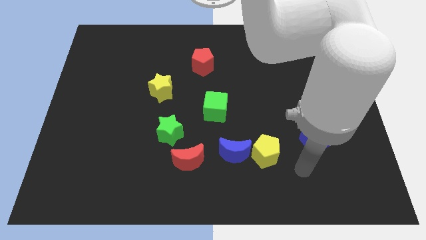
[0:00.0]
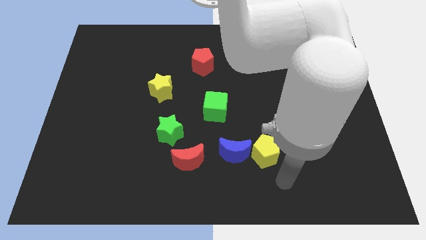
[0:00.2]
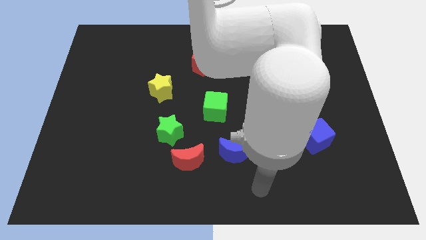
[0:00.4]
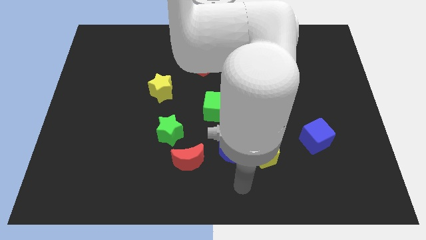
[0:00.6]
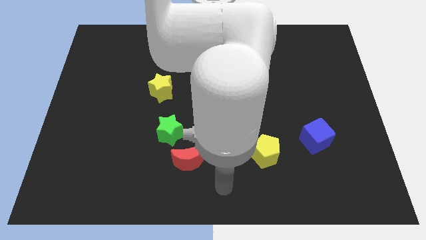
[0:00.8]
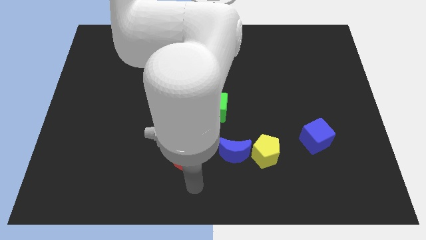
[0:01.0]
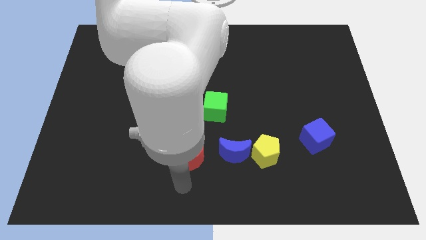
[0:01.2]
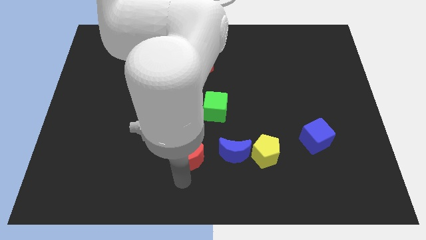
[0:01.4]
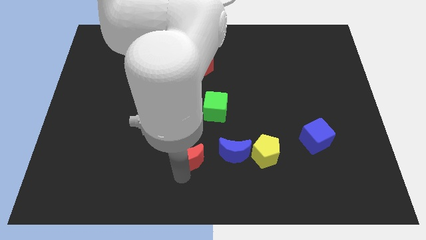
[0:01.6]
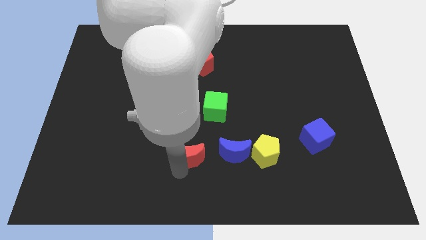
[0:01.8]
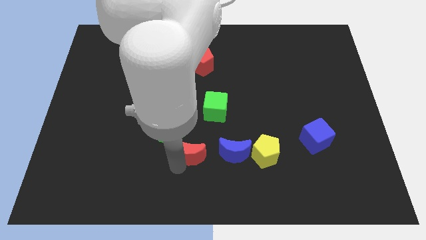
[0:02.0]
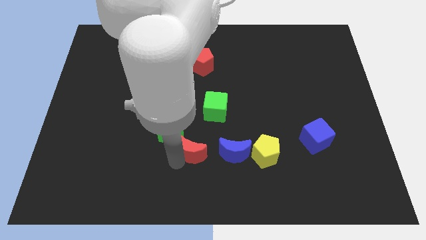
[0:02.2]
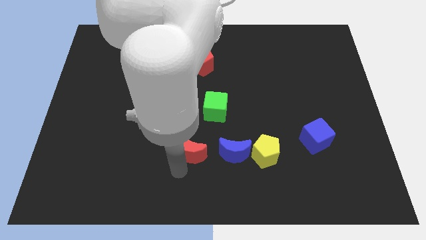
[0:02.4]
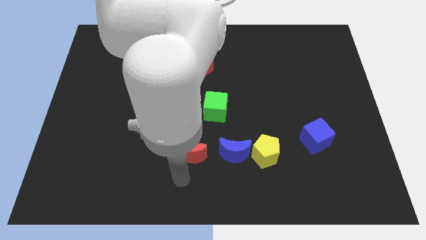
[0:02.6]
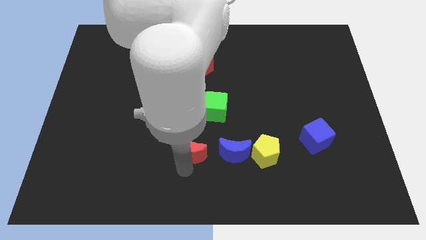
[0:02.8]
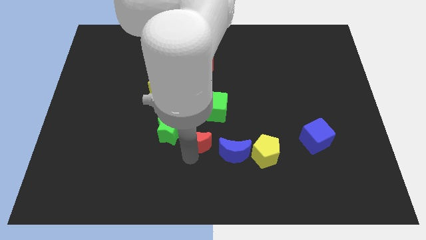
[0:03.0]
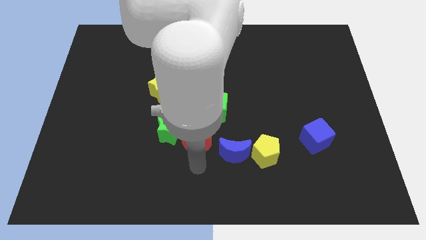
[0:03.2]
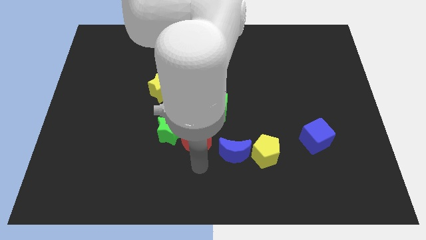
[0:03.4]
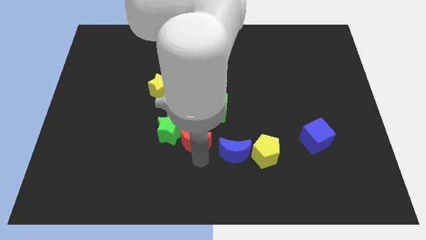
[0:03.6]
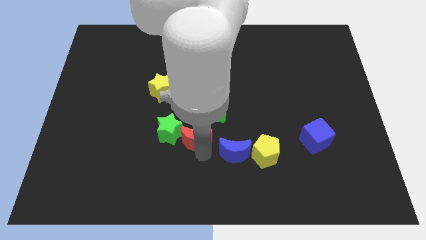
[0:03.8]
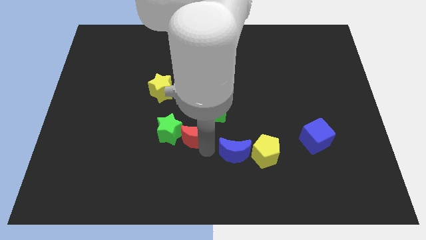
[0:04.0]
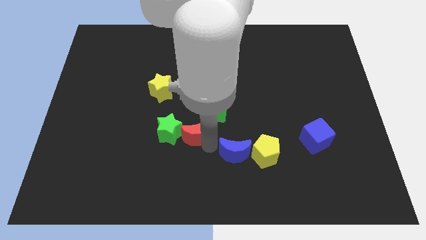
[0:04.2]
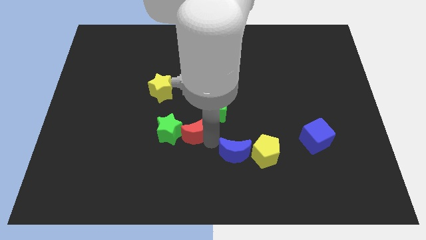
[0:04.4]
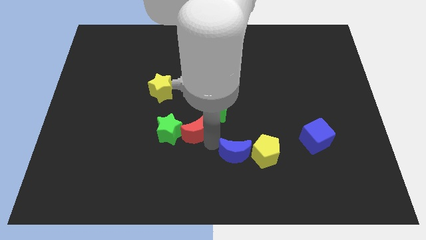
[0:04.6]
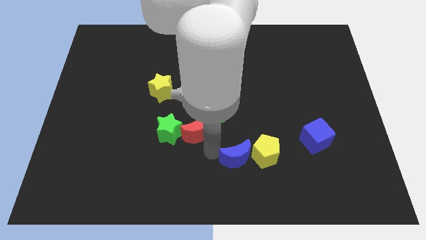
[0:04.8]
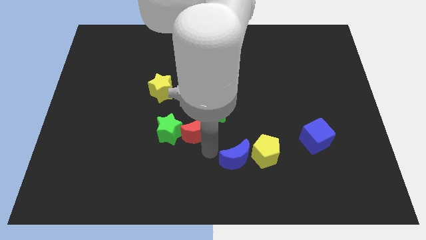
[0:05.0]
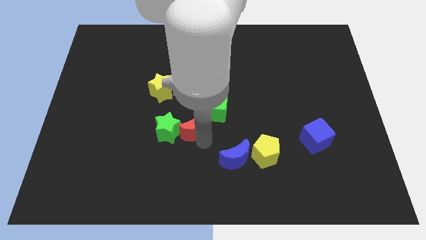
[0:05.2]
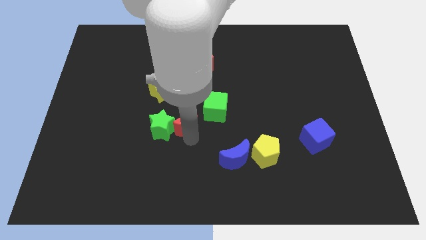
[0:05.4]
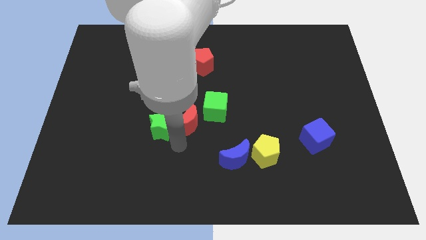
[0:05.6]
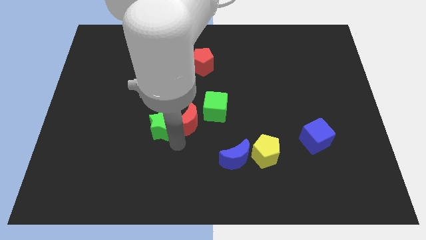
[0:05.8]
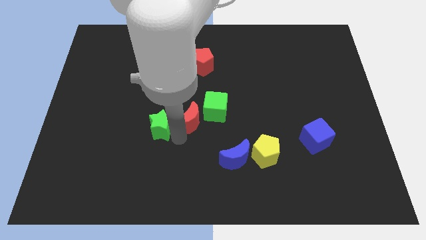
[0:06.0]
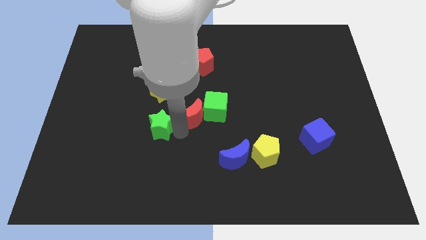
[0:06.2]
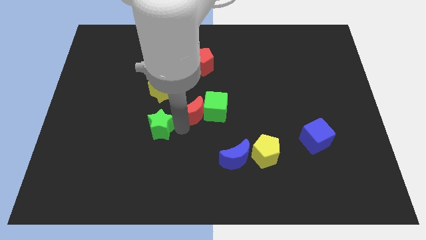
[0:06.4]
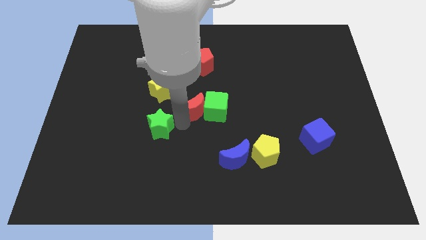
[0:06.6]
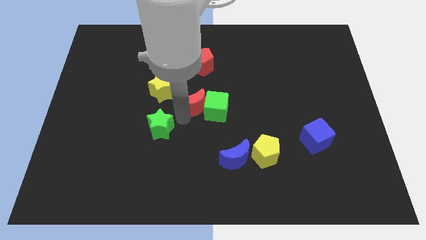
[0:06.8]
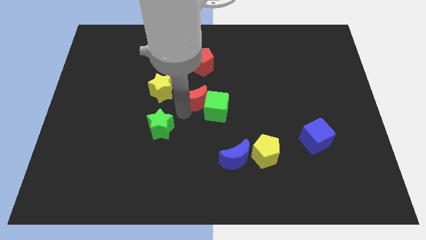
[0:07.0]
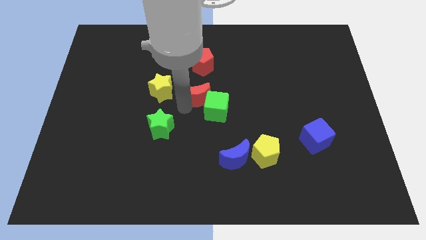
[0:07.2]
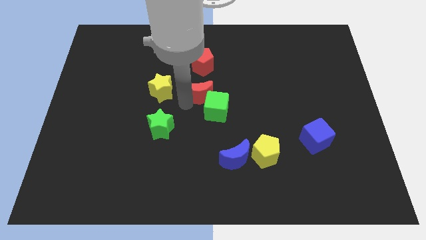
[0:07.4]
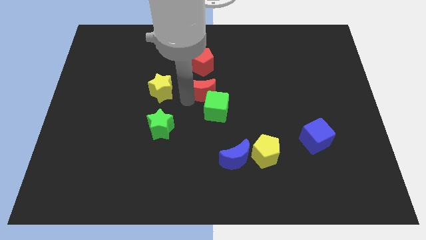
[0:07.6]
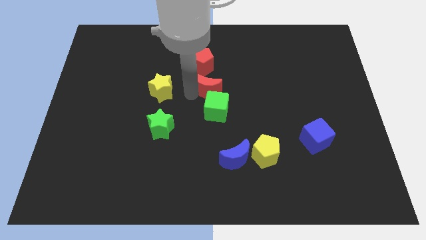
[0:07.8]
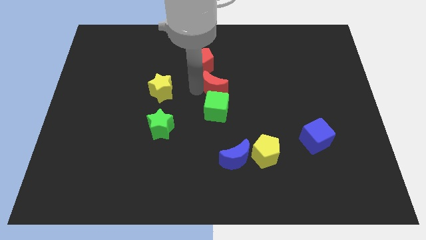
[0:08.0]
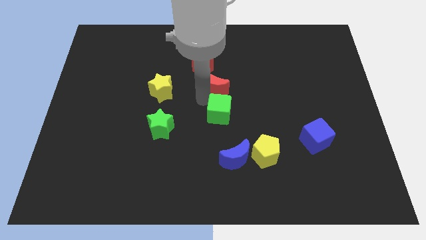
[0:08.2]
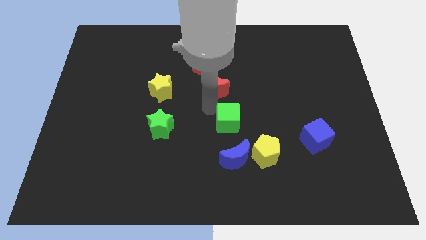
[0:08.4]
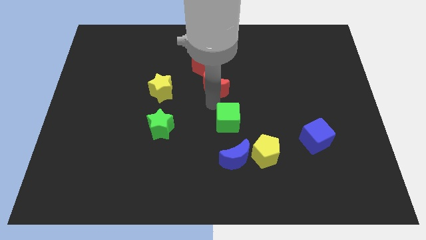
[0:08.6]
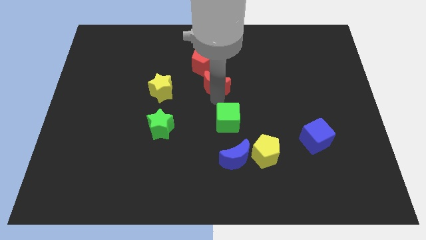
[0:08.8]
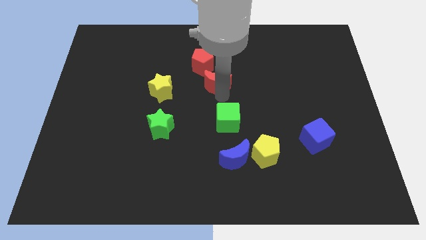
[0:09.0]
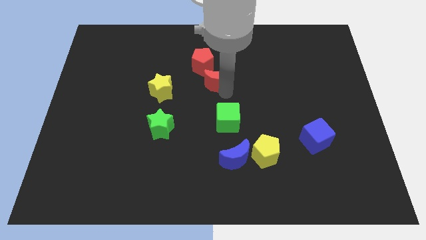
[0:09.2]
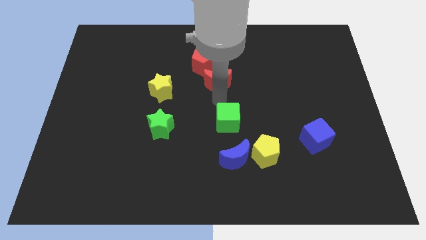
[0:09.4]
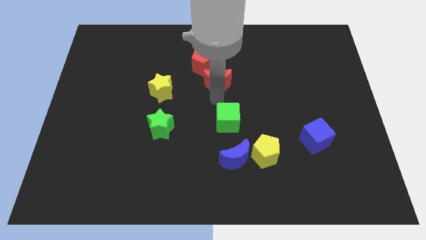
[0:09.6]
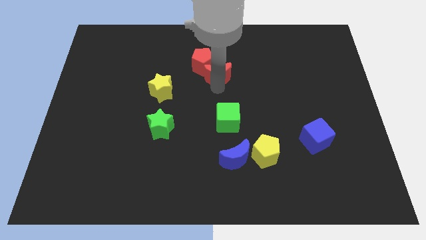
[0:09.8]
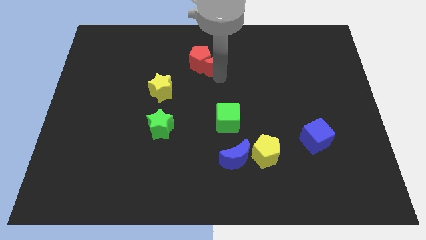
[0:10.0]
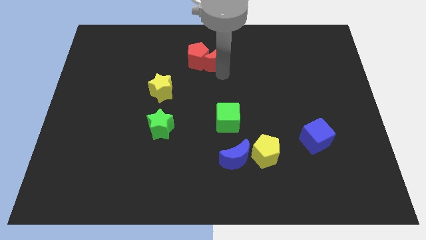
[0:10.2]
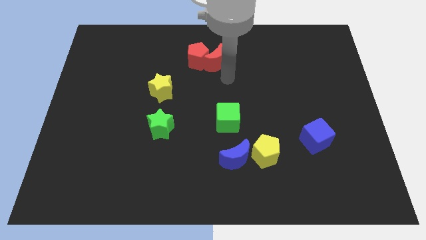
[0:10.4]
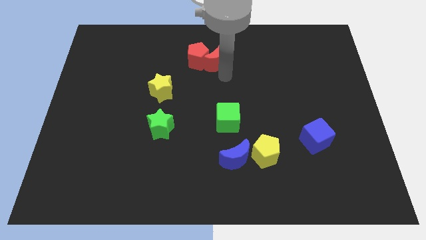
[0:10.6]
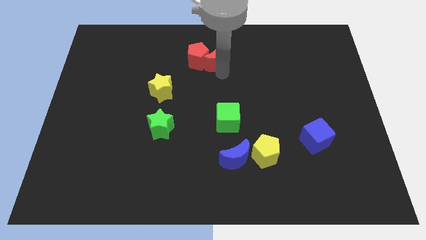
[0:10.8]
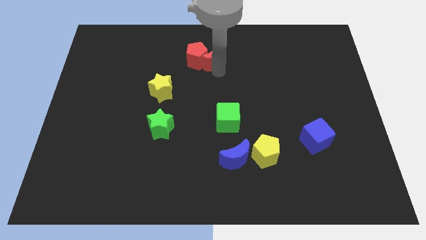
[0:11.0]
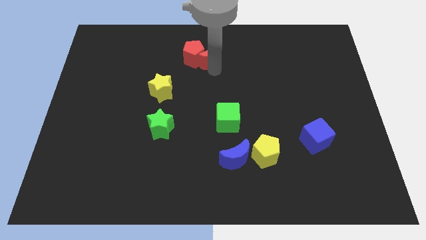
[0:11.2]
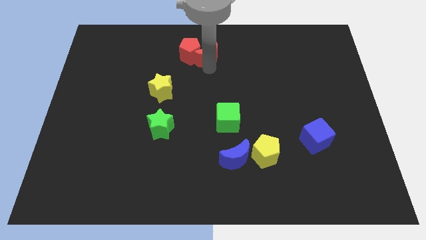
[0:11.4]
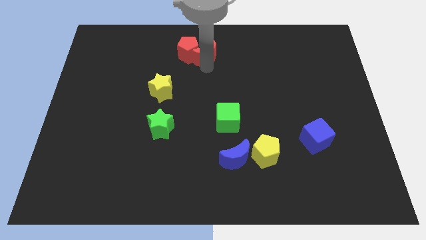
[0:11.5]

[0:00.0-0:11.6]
push the red moon to the top

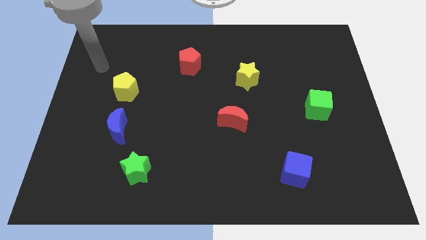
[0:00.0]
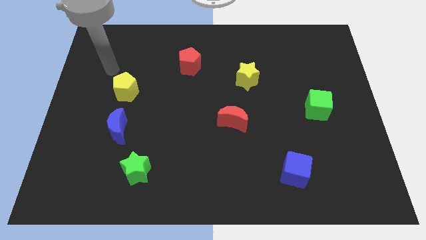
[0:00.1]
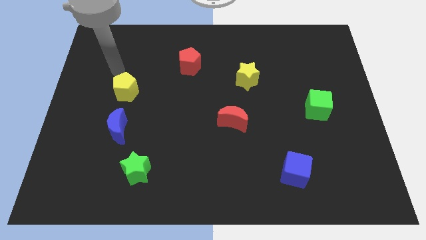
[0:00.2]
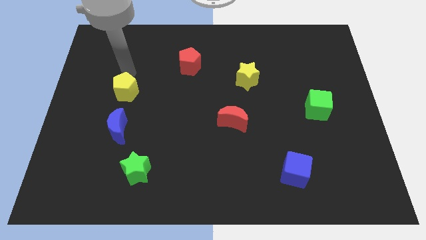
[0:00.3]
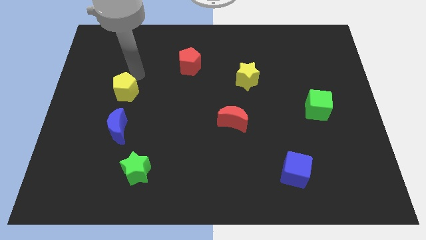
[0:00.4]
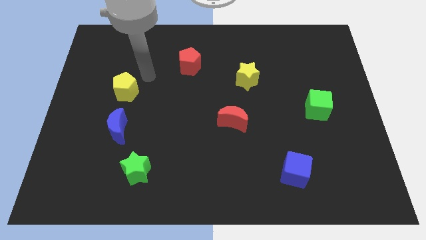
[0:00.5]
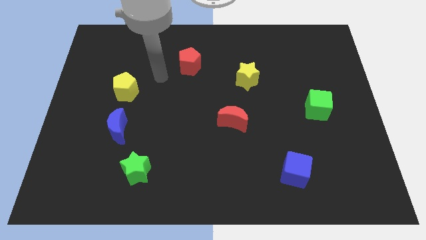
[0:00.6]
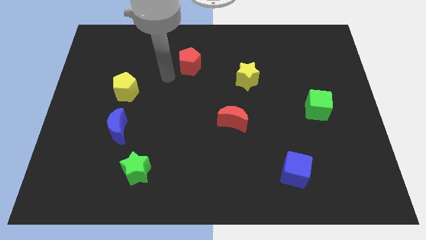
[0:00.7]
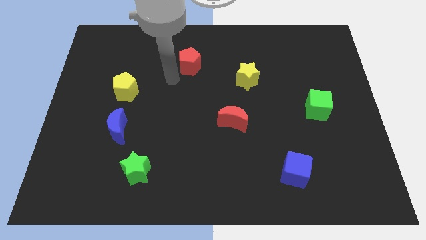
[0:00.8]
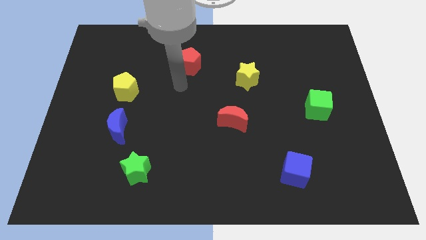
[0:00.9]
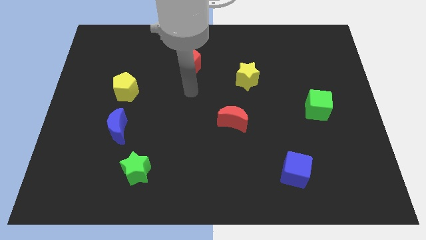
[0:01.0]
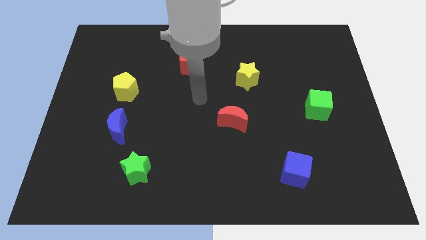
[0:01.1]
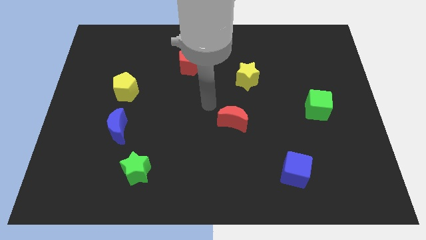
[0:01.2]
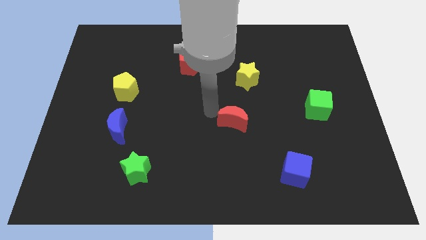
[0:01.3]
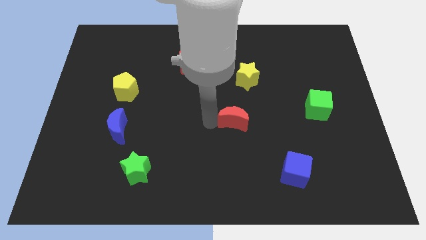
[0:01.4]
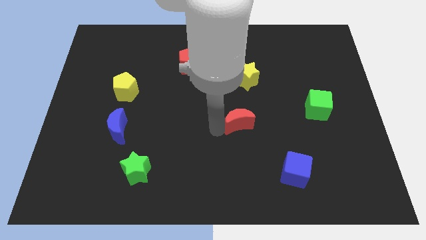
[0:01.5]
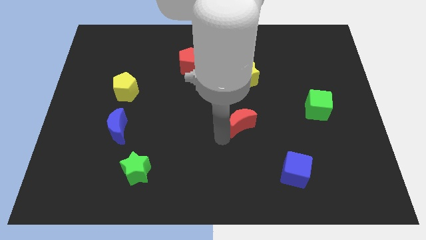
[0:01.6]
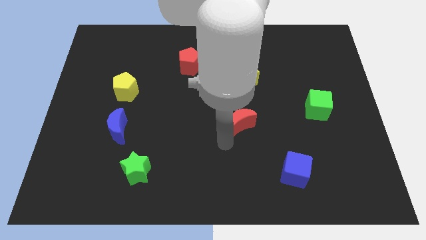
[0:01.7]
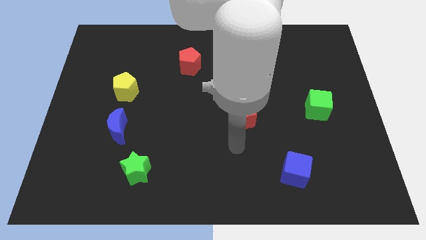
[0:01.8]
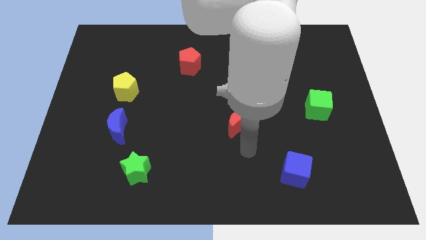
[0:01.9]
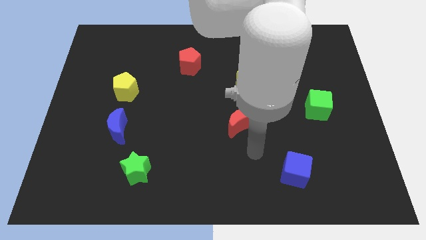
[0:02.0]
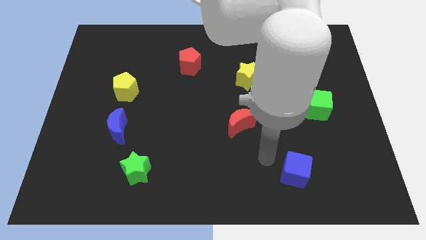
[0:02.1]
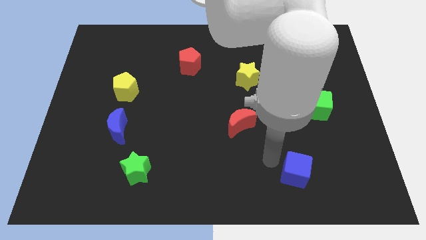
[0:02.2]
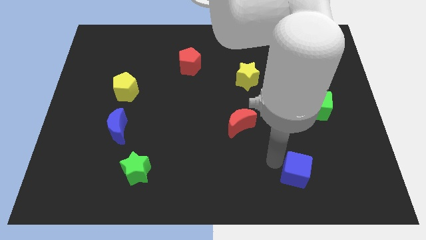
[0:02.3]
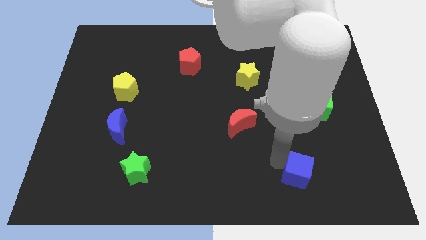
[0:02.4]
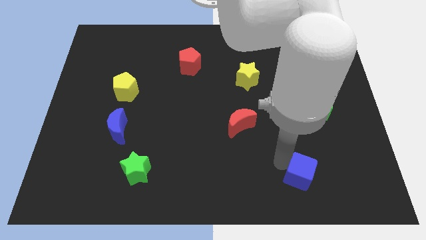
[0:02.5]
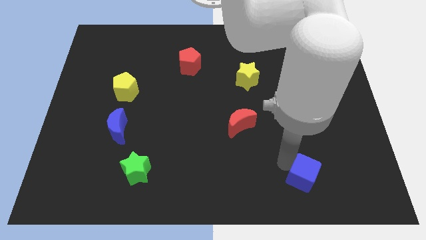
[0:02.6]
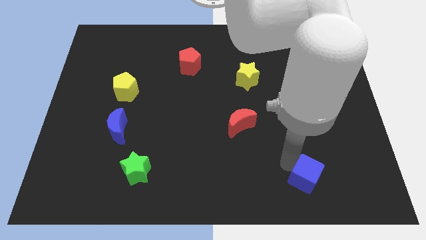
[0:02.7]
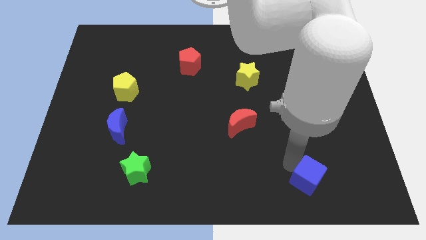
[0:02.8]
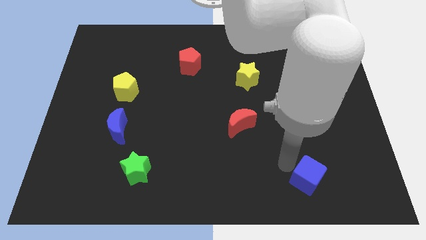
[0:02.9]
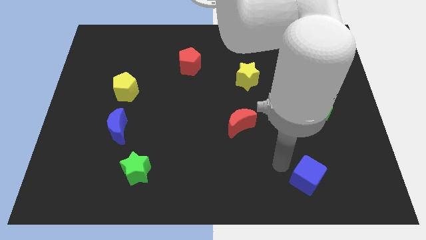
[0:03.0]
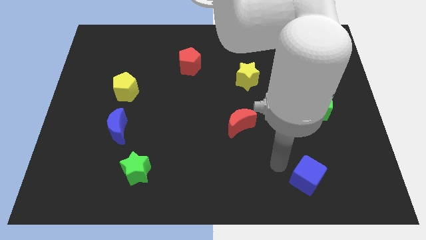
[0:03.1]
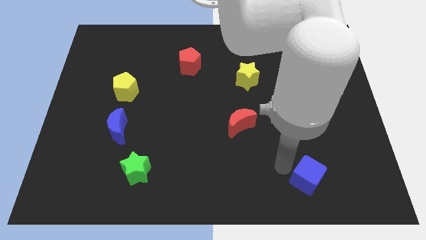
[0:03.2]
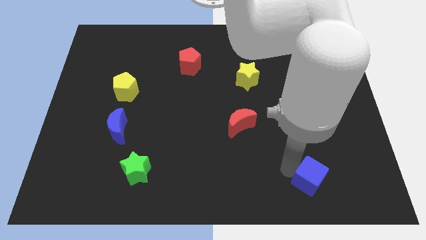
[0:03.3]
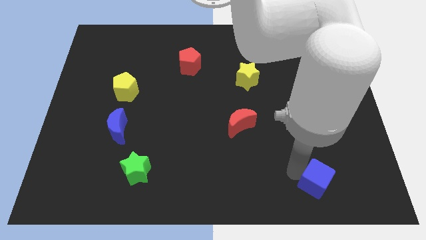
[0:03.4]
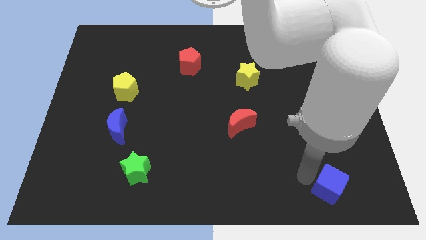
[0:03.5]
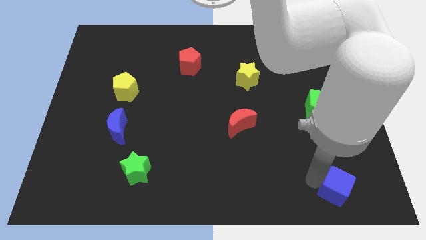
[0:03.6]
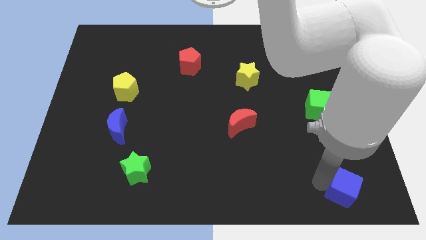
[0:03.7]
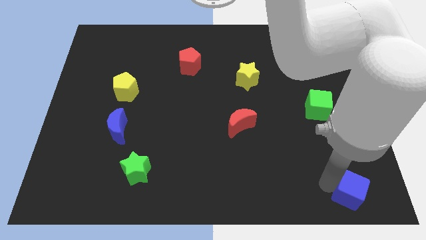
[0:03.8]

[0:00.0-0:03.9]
move the blue cube to the bottom right corner
